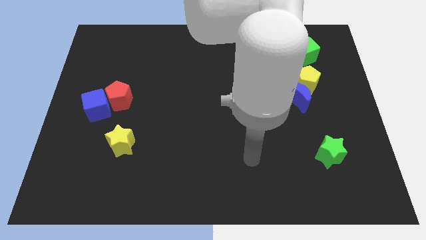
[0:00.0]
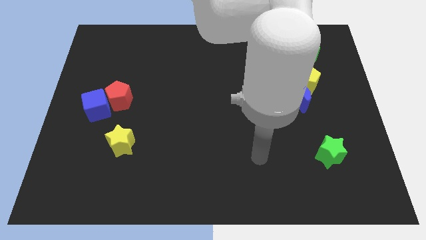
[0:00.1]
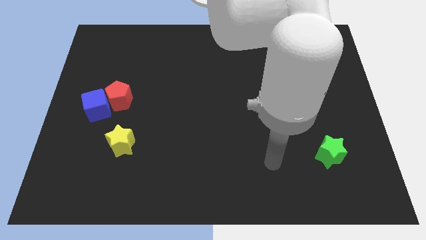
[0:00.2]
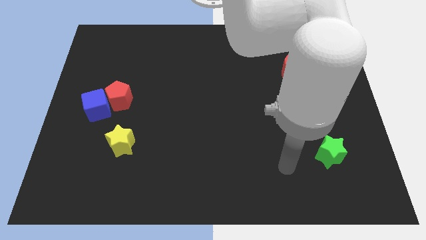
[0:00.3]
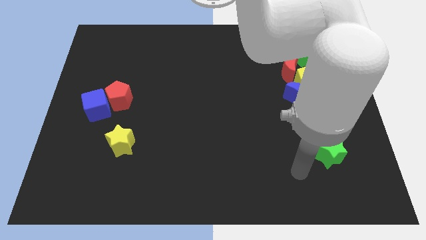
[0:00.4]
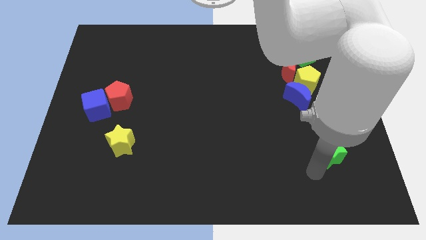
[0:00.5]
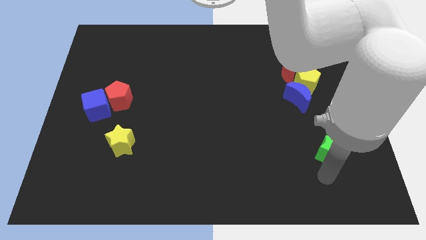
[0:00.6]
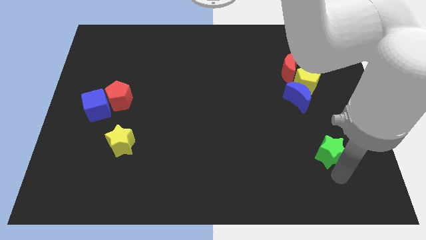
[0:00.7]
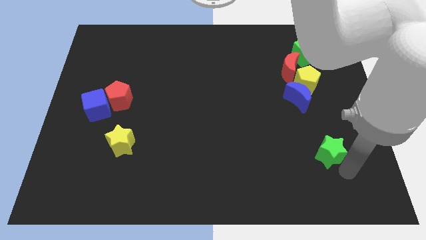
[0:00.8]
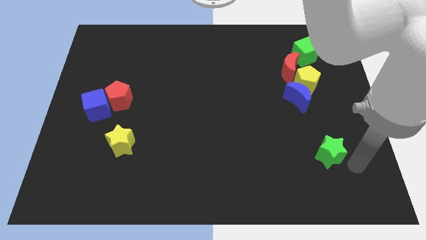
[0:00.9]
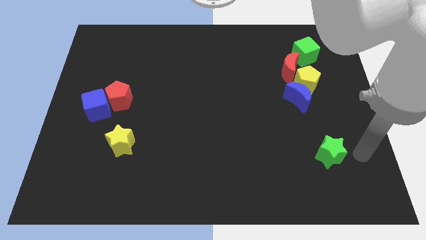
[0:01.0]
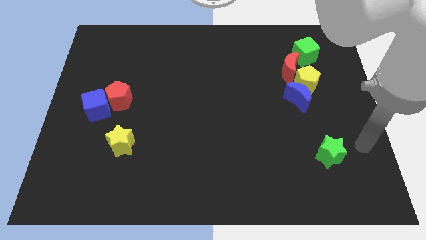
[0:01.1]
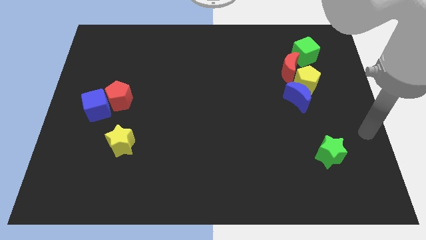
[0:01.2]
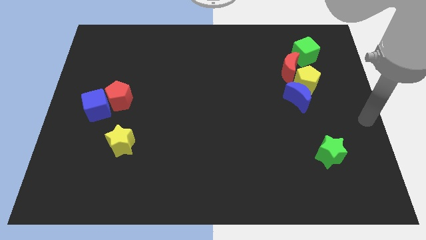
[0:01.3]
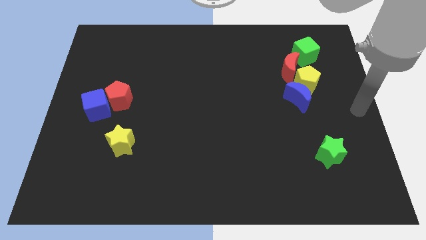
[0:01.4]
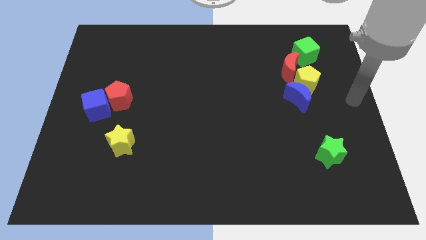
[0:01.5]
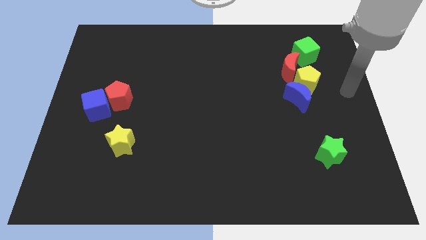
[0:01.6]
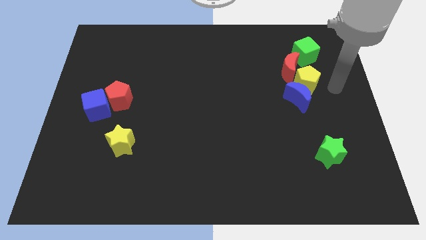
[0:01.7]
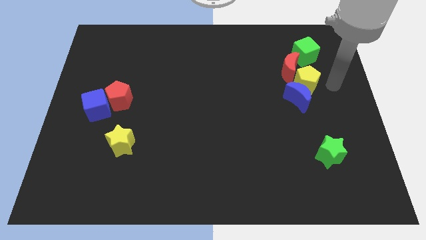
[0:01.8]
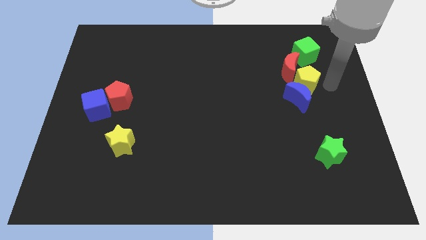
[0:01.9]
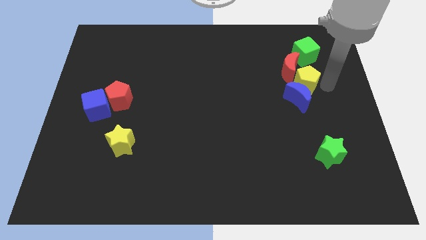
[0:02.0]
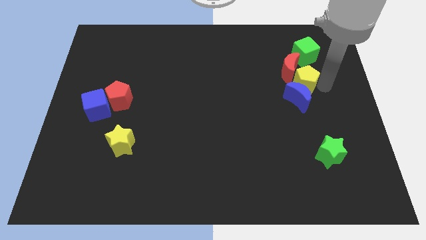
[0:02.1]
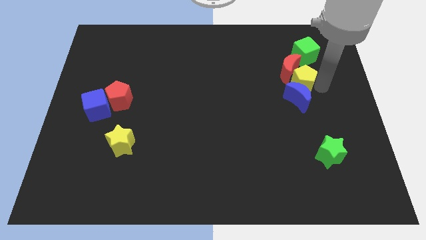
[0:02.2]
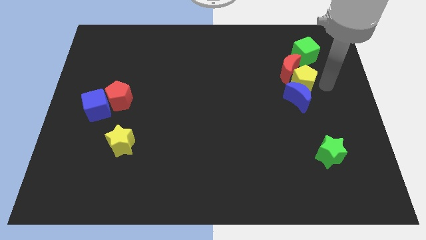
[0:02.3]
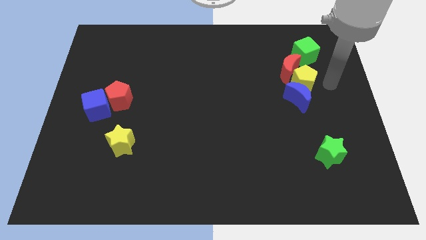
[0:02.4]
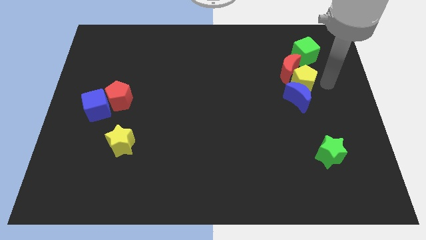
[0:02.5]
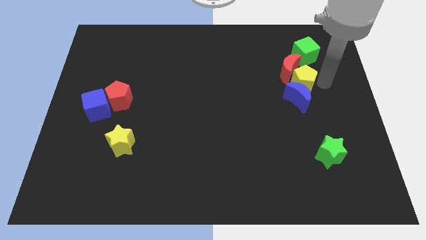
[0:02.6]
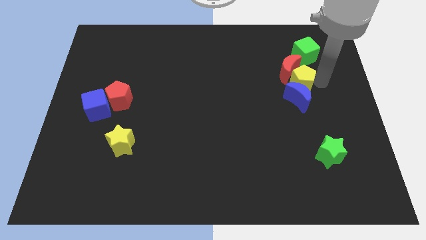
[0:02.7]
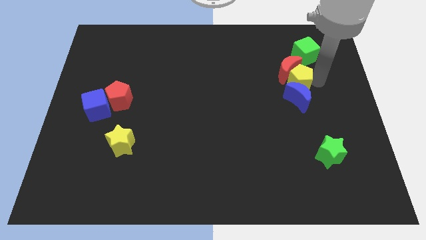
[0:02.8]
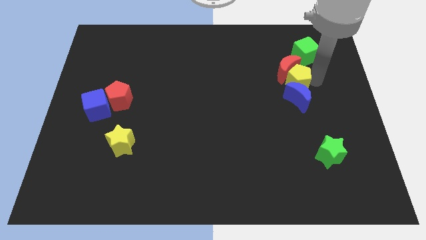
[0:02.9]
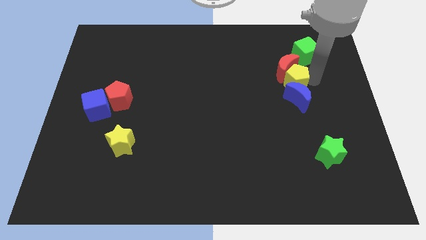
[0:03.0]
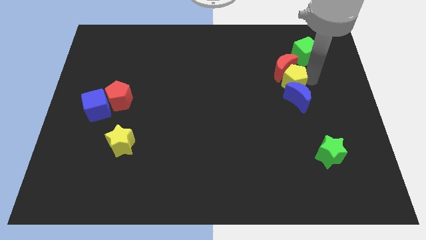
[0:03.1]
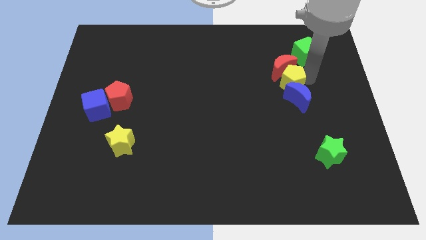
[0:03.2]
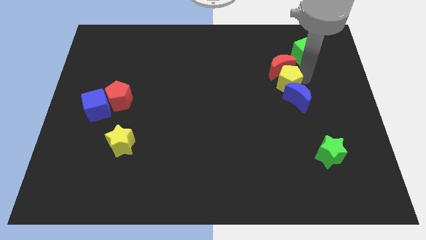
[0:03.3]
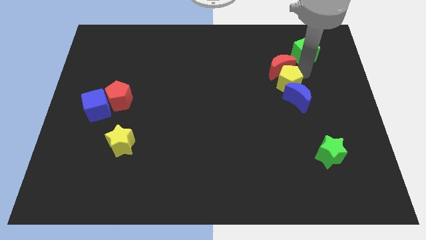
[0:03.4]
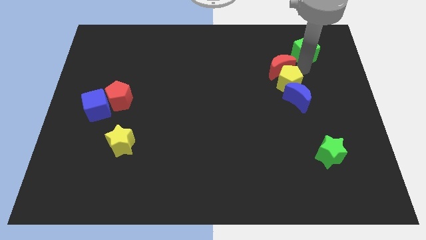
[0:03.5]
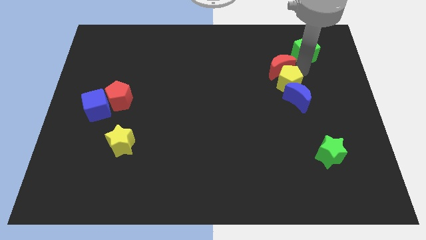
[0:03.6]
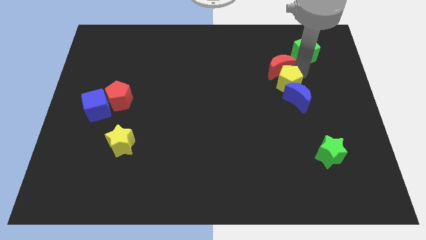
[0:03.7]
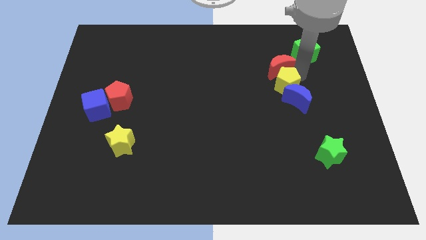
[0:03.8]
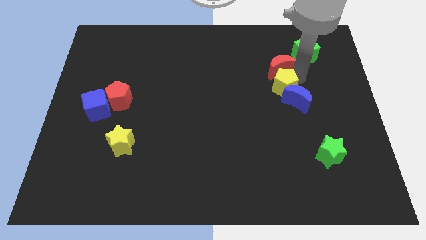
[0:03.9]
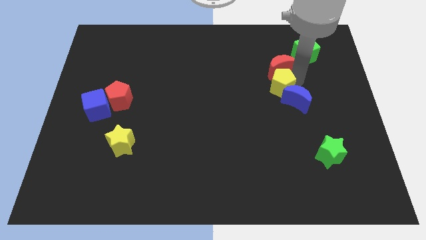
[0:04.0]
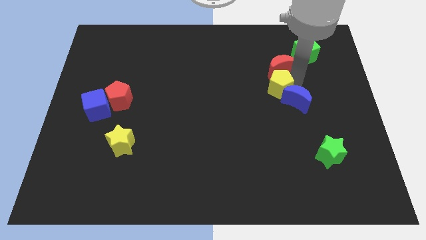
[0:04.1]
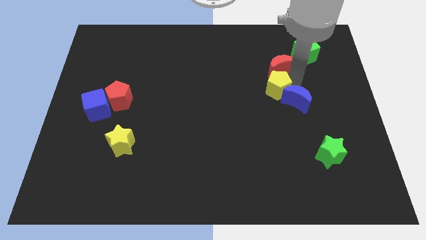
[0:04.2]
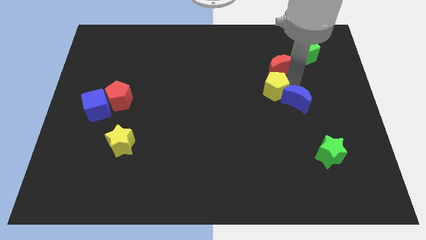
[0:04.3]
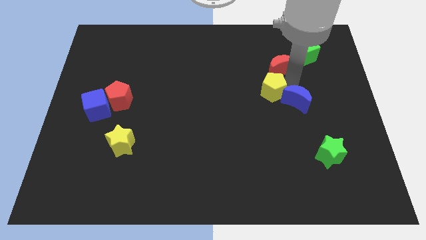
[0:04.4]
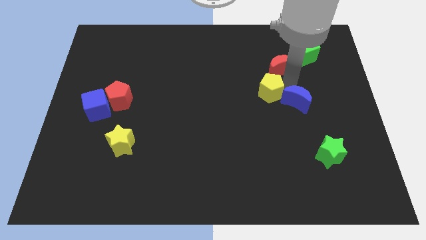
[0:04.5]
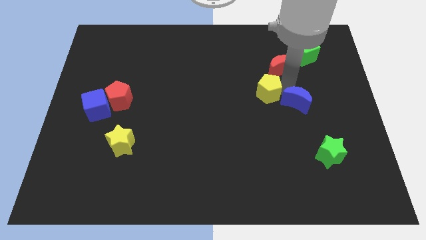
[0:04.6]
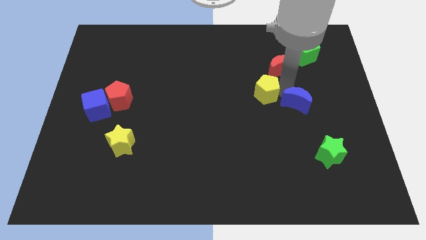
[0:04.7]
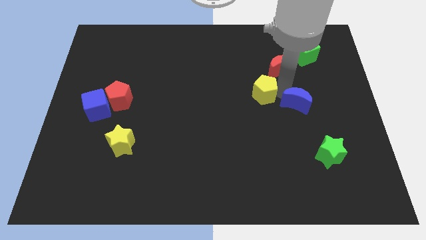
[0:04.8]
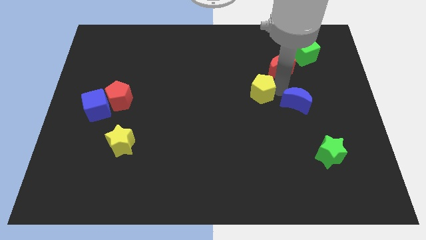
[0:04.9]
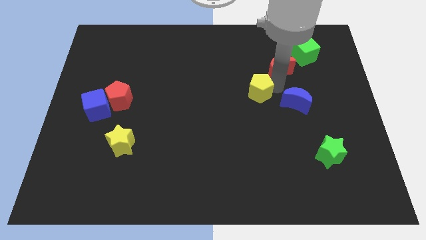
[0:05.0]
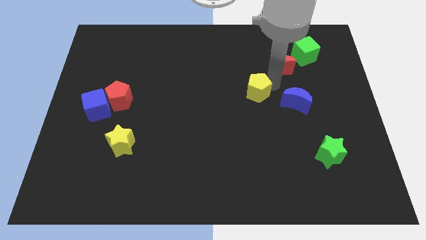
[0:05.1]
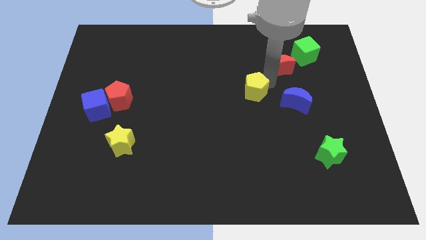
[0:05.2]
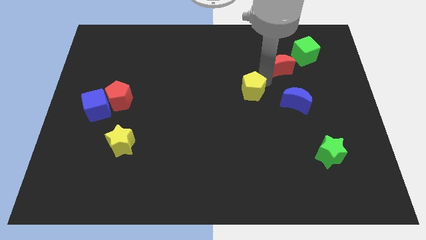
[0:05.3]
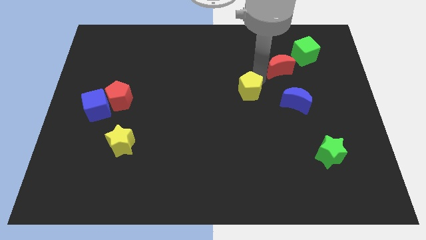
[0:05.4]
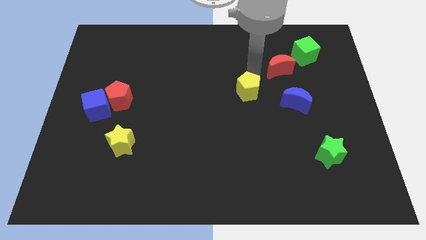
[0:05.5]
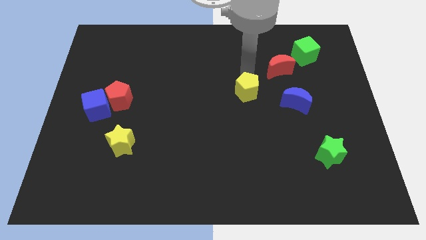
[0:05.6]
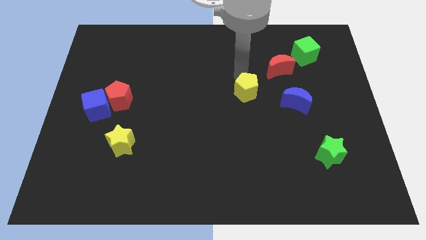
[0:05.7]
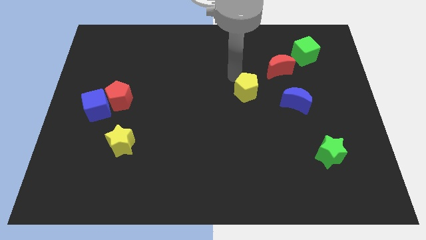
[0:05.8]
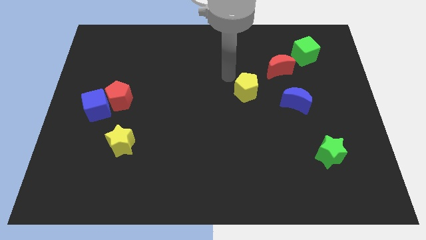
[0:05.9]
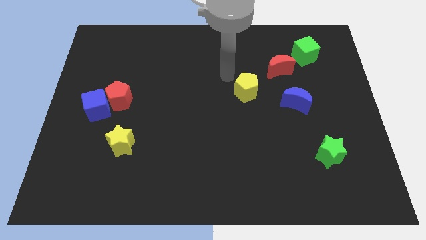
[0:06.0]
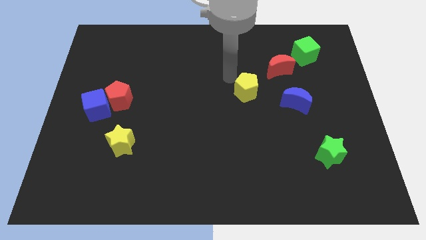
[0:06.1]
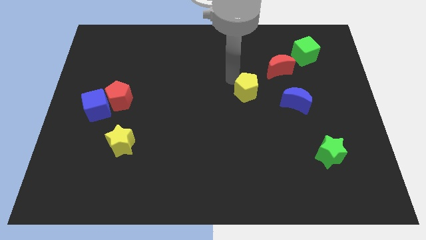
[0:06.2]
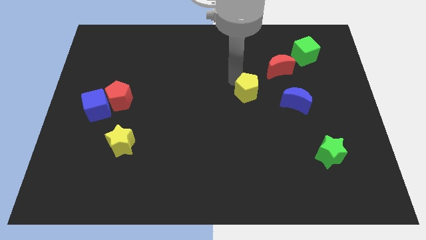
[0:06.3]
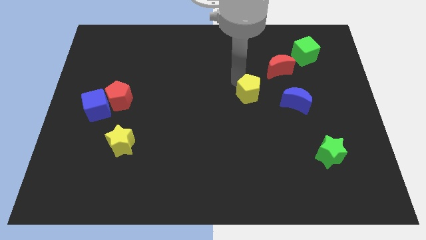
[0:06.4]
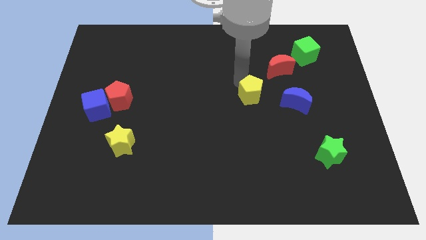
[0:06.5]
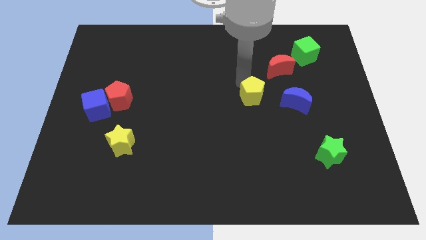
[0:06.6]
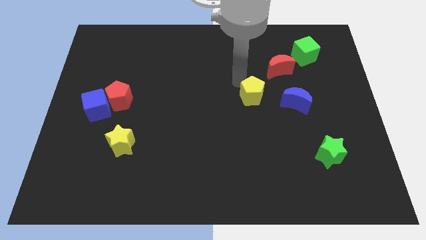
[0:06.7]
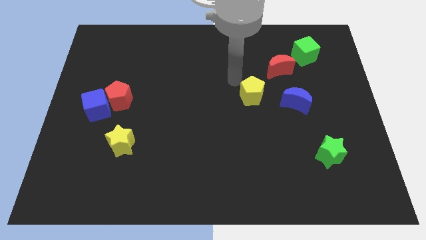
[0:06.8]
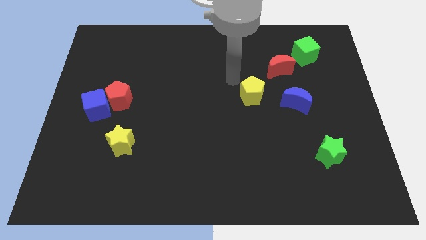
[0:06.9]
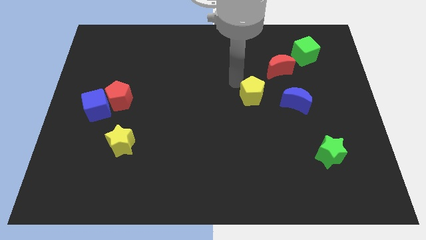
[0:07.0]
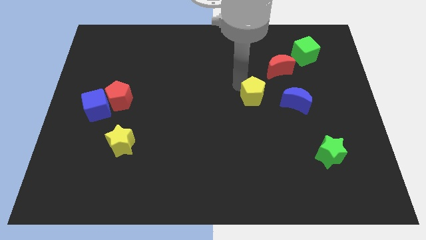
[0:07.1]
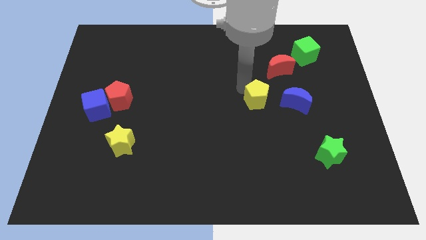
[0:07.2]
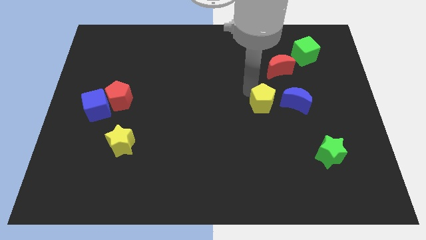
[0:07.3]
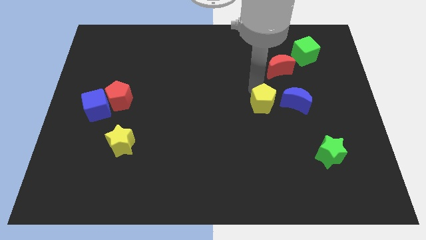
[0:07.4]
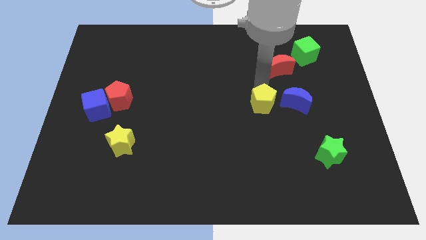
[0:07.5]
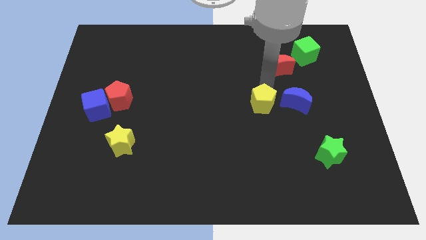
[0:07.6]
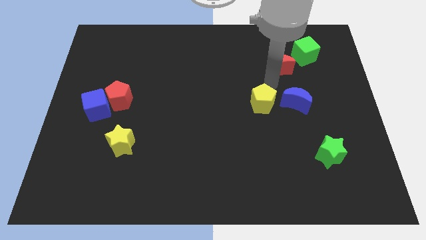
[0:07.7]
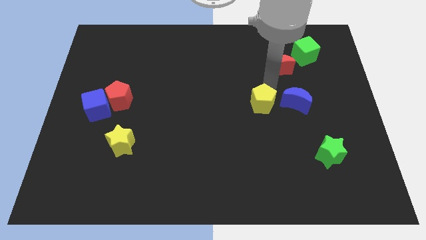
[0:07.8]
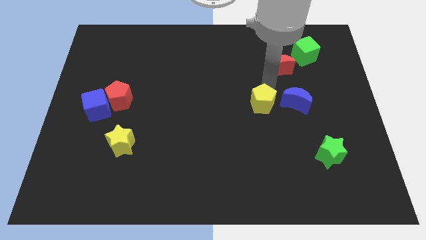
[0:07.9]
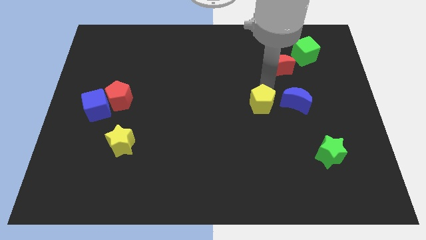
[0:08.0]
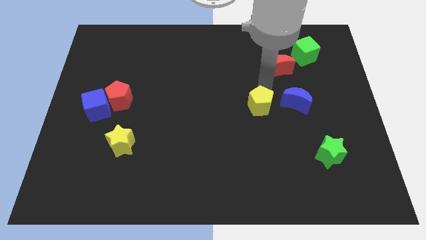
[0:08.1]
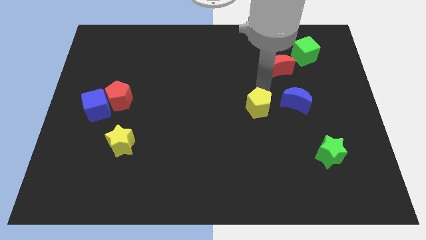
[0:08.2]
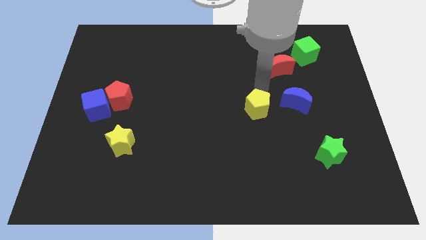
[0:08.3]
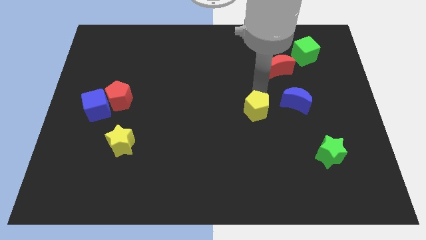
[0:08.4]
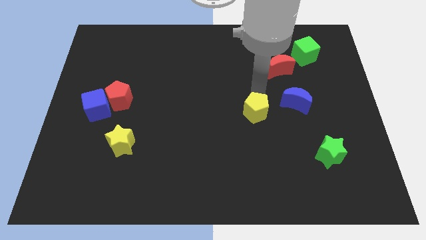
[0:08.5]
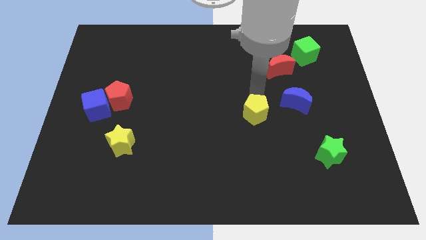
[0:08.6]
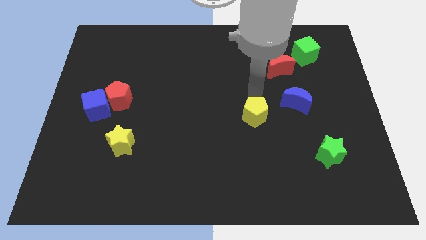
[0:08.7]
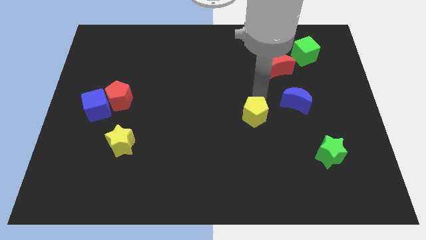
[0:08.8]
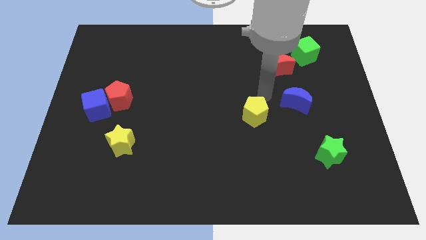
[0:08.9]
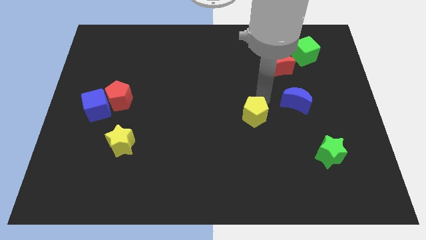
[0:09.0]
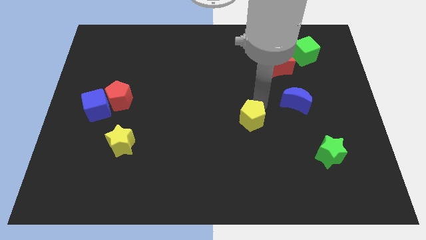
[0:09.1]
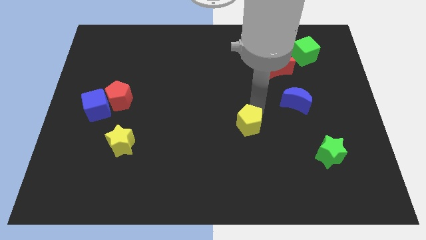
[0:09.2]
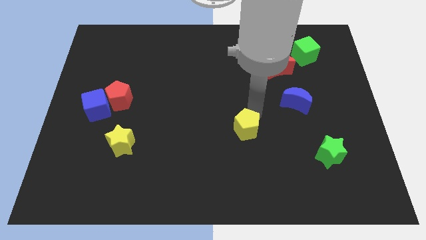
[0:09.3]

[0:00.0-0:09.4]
slide the yellow pentagon down and then to the left
